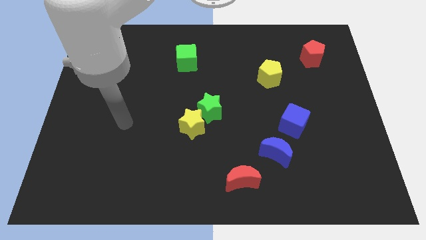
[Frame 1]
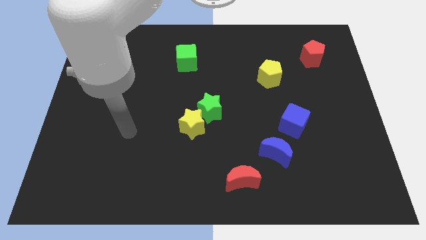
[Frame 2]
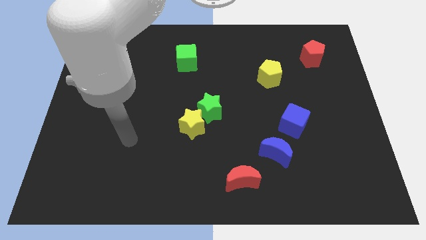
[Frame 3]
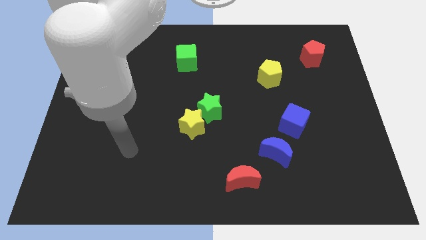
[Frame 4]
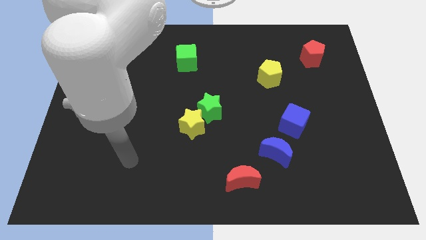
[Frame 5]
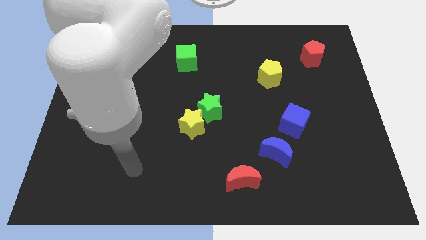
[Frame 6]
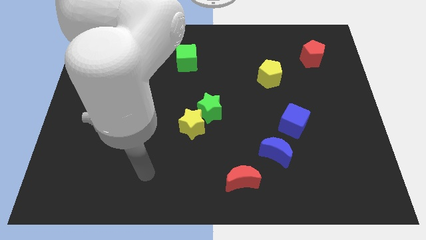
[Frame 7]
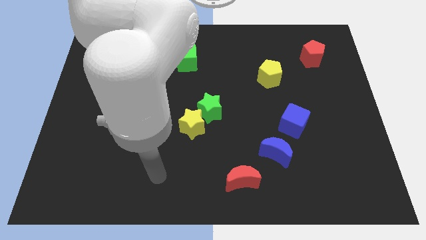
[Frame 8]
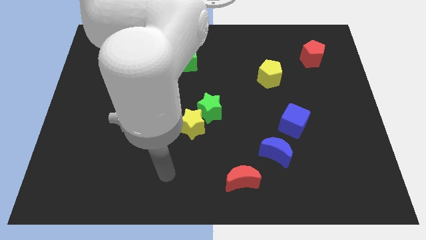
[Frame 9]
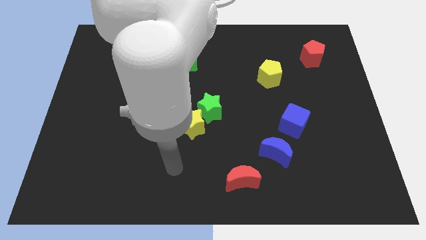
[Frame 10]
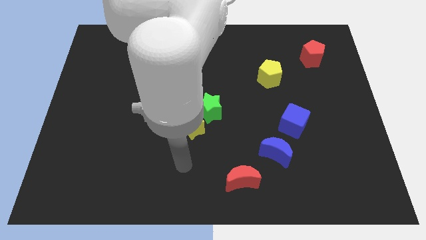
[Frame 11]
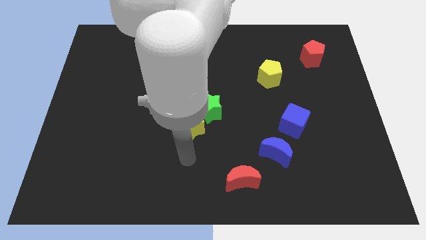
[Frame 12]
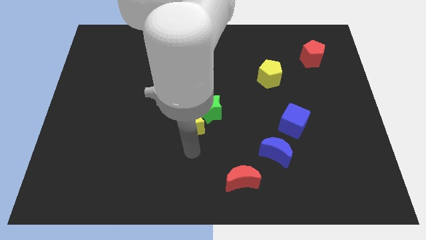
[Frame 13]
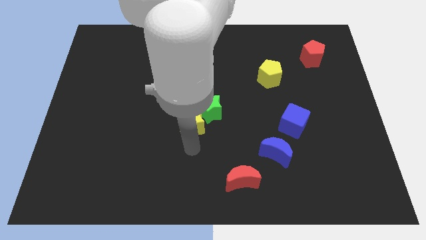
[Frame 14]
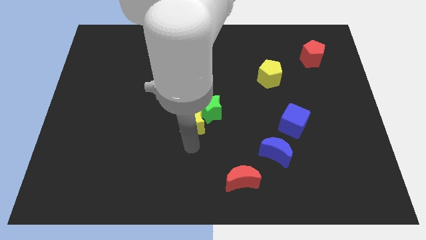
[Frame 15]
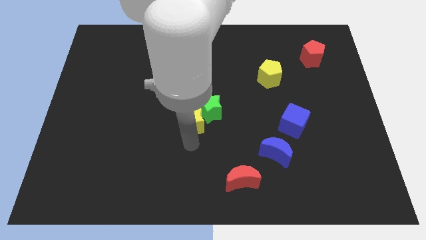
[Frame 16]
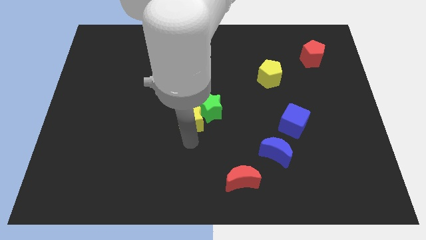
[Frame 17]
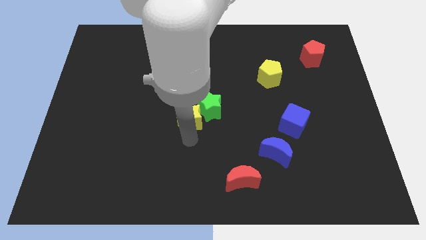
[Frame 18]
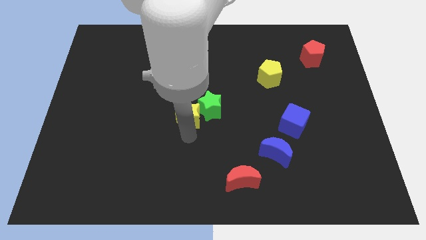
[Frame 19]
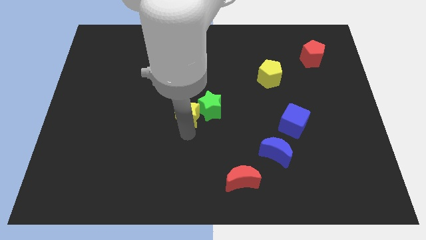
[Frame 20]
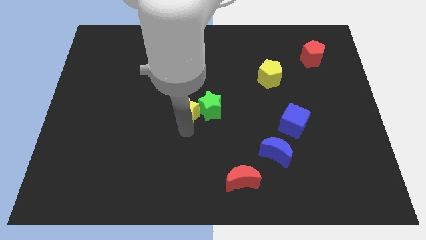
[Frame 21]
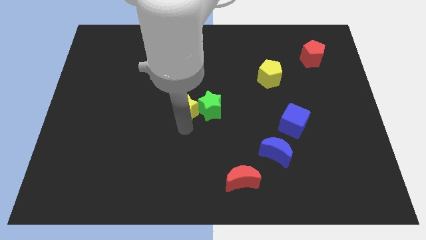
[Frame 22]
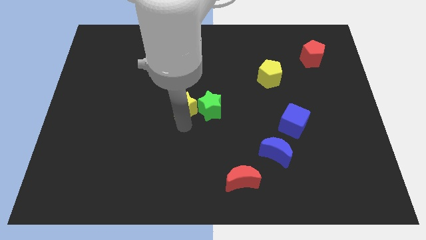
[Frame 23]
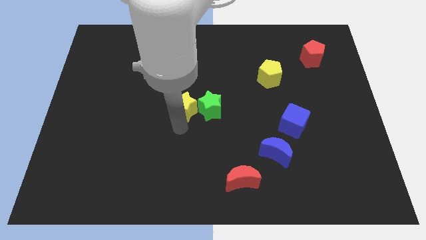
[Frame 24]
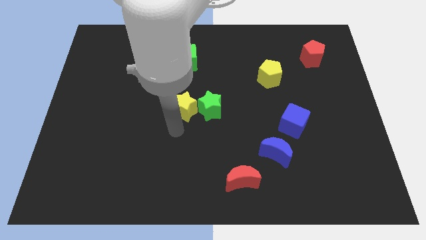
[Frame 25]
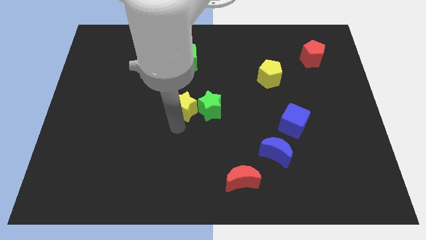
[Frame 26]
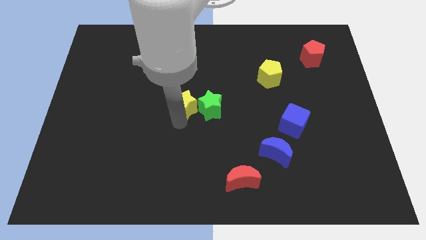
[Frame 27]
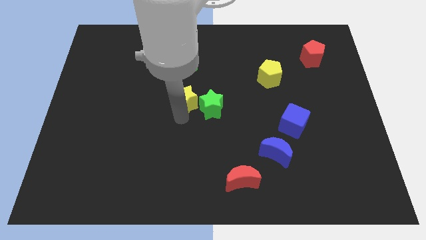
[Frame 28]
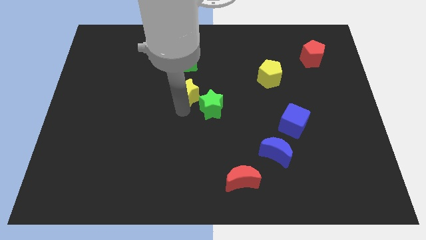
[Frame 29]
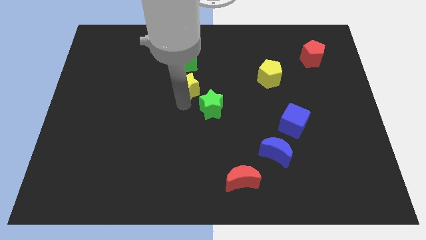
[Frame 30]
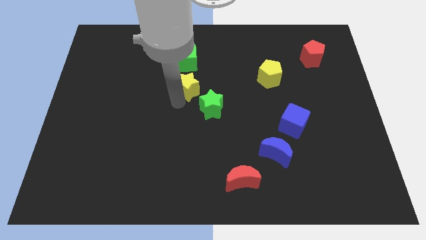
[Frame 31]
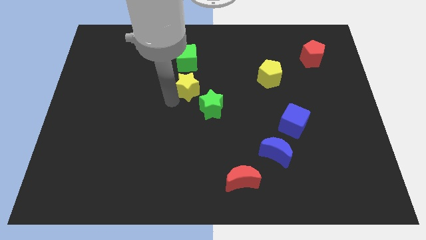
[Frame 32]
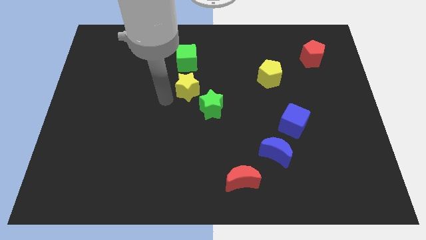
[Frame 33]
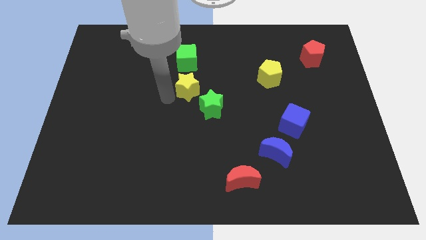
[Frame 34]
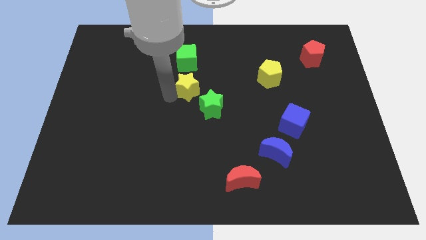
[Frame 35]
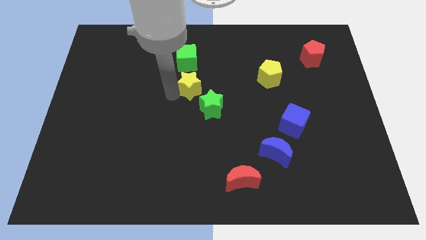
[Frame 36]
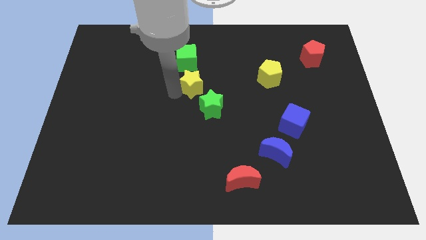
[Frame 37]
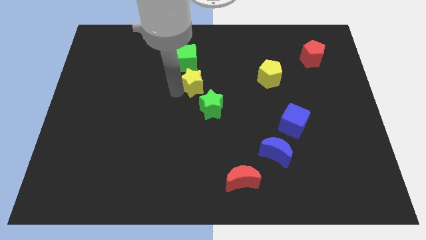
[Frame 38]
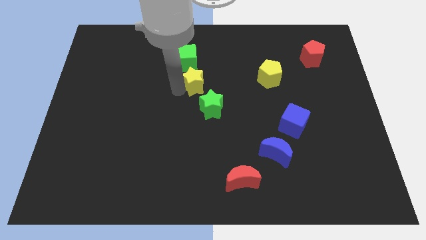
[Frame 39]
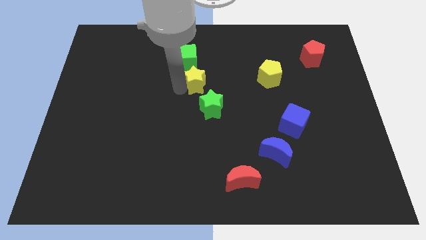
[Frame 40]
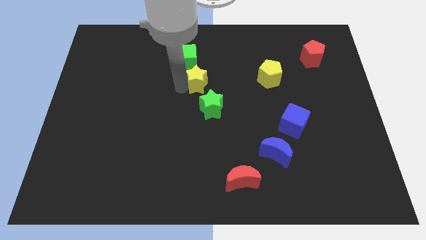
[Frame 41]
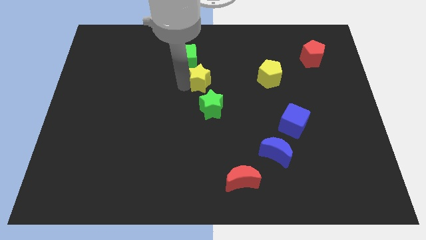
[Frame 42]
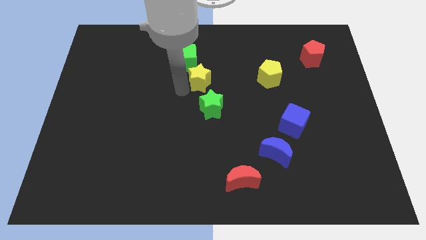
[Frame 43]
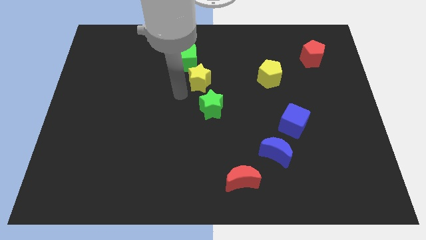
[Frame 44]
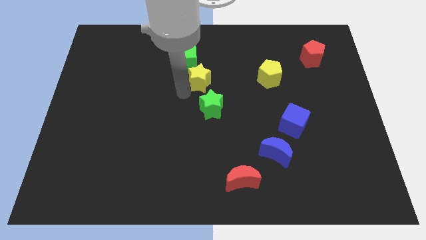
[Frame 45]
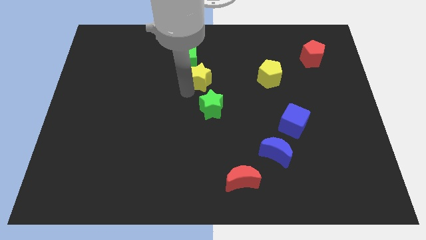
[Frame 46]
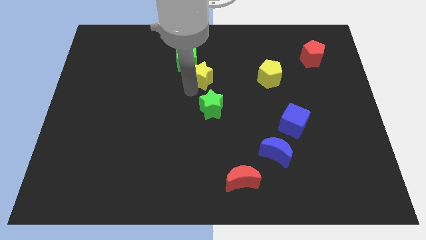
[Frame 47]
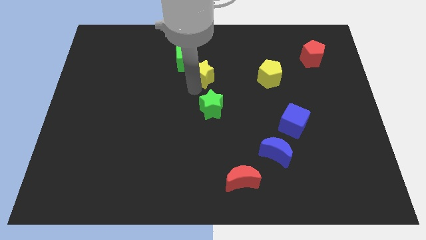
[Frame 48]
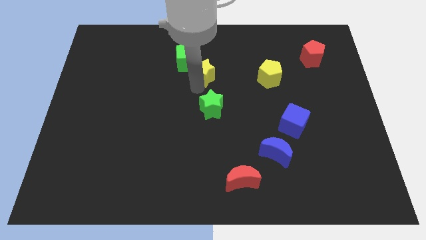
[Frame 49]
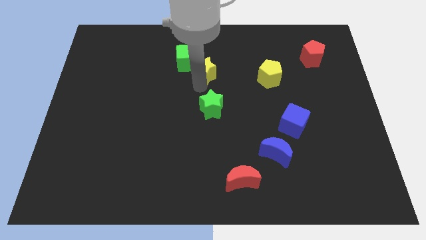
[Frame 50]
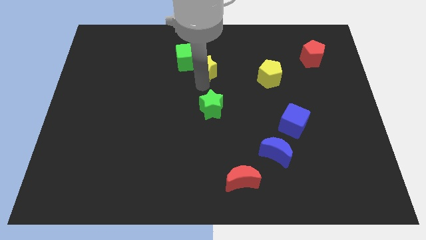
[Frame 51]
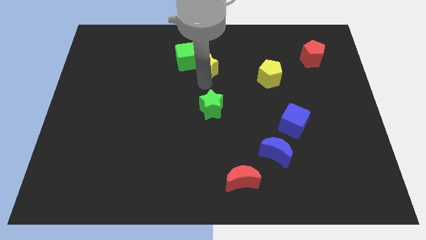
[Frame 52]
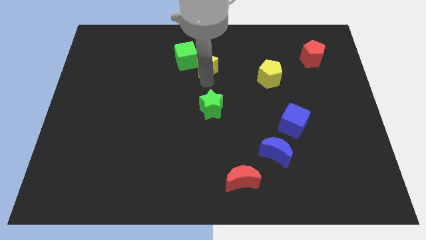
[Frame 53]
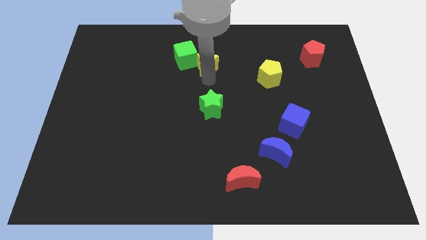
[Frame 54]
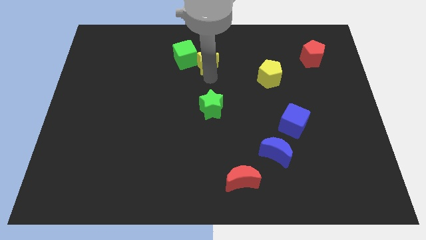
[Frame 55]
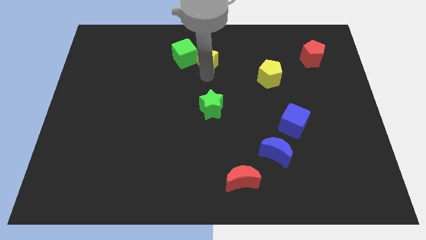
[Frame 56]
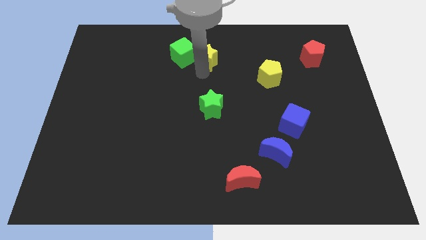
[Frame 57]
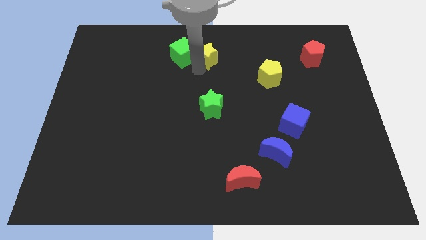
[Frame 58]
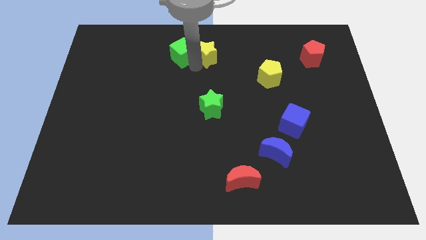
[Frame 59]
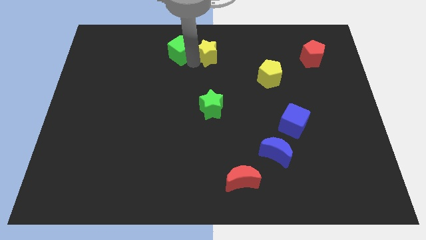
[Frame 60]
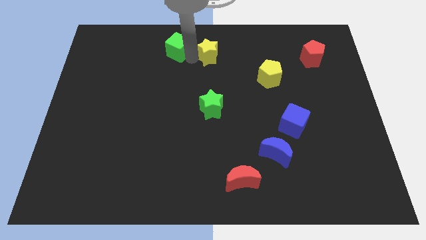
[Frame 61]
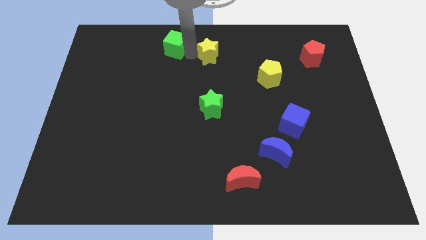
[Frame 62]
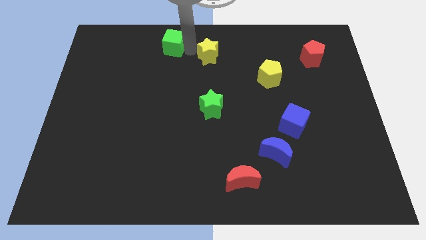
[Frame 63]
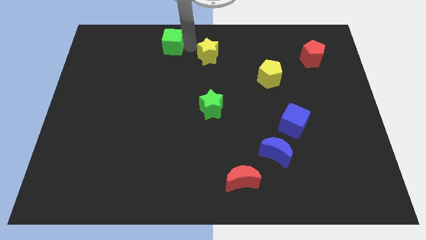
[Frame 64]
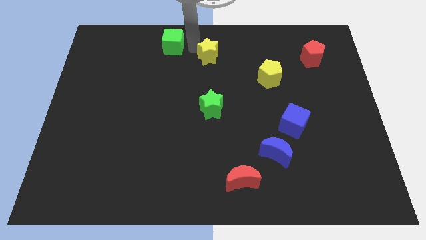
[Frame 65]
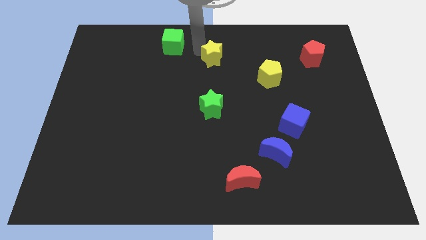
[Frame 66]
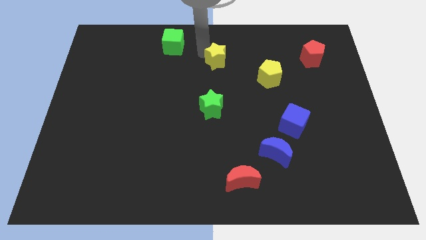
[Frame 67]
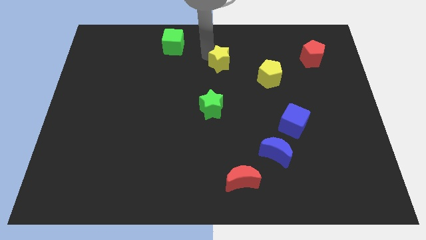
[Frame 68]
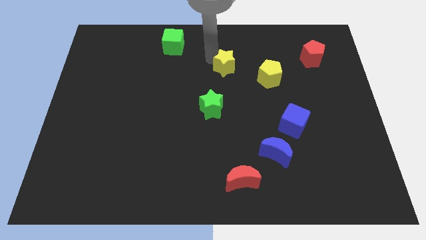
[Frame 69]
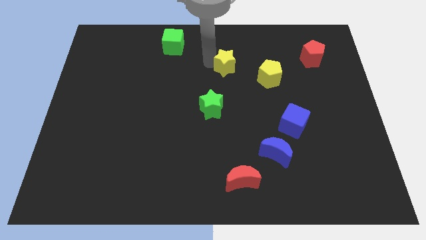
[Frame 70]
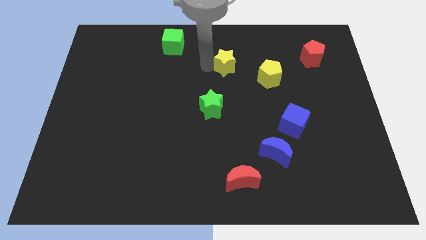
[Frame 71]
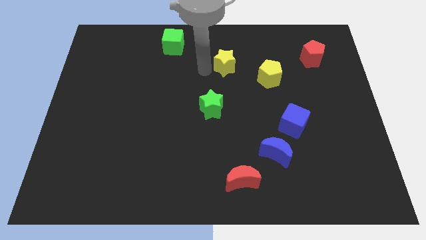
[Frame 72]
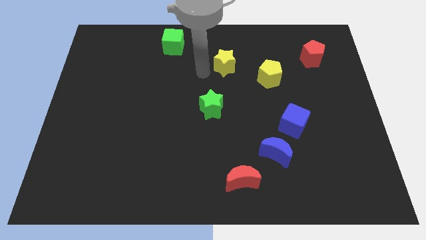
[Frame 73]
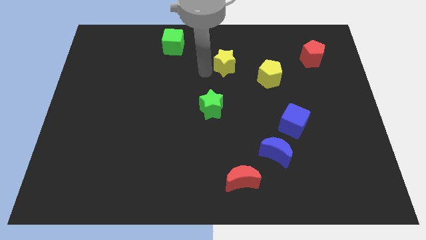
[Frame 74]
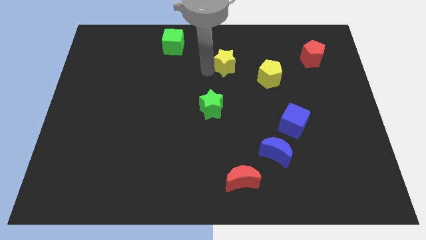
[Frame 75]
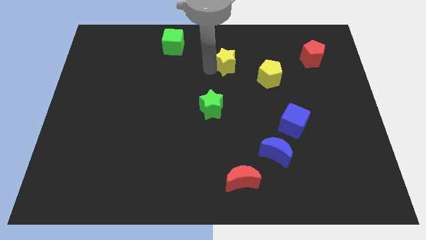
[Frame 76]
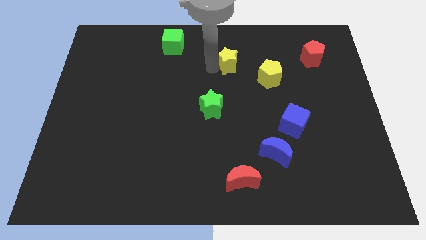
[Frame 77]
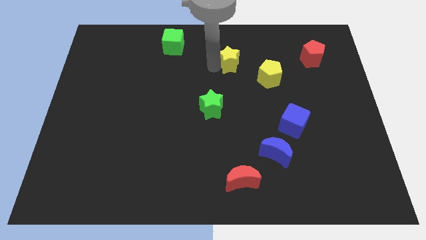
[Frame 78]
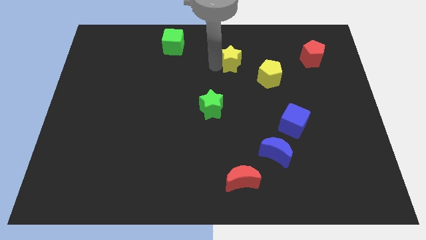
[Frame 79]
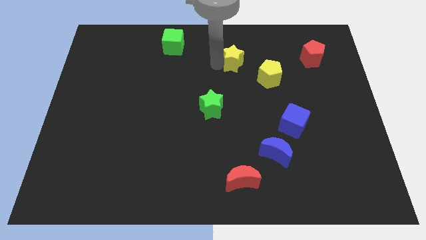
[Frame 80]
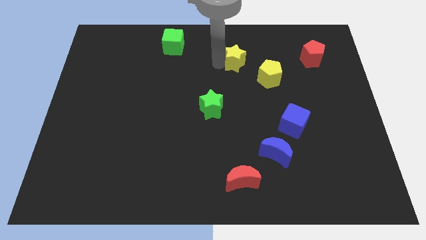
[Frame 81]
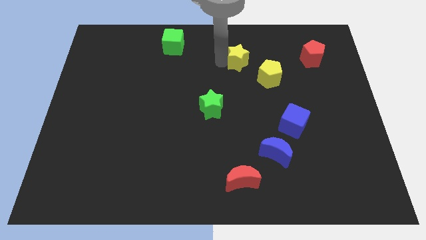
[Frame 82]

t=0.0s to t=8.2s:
slide the yellow star diagonally upwards and right

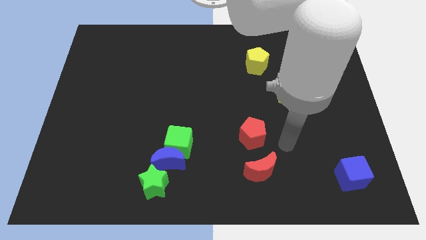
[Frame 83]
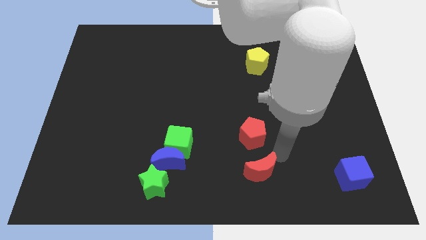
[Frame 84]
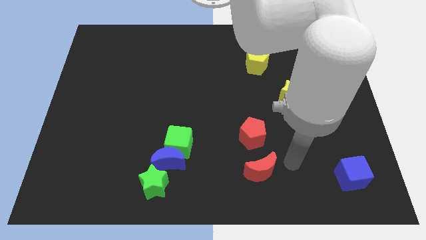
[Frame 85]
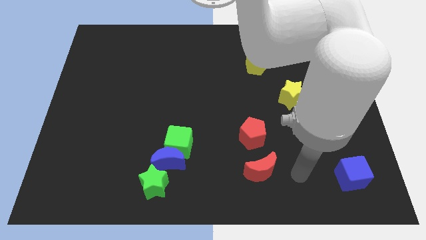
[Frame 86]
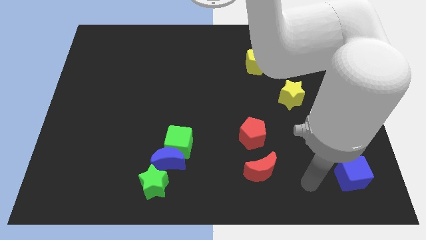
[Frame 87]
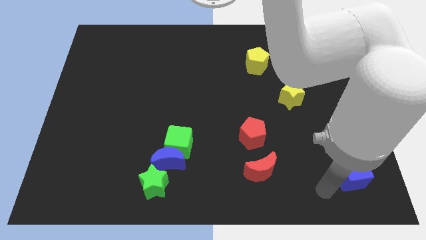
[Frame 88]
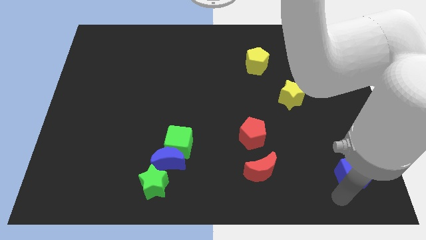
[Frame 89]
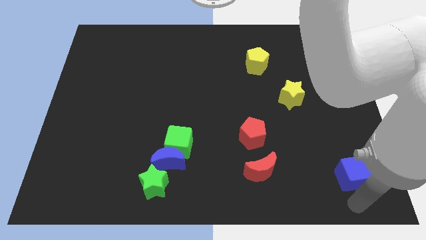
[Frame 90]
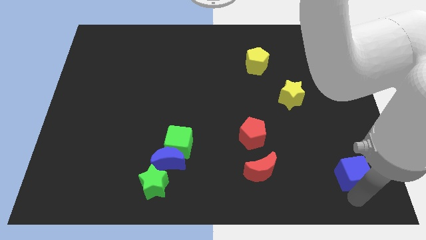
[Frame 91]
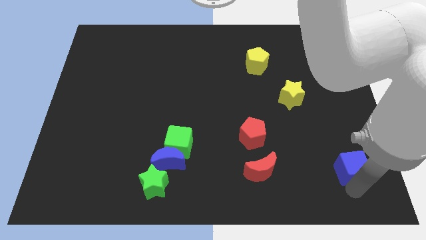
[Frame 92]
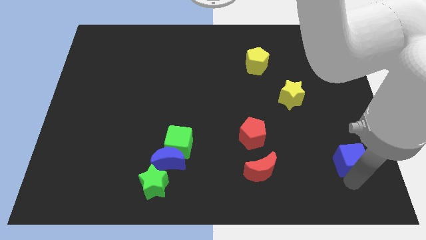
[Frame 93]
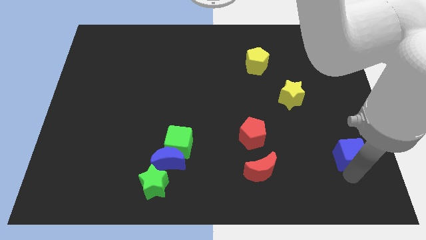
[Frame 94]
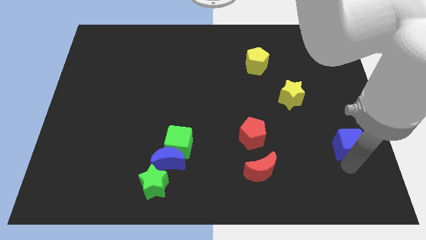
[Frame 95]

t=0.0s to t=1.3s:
move the blue cube up slightly
